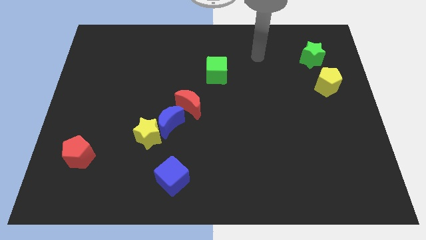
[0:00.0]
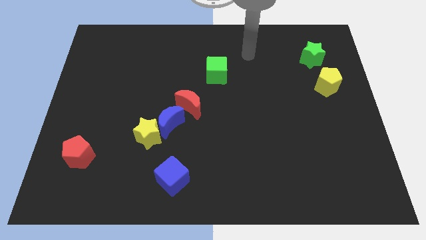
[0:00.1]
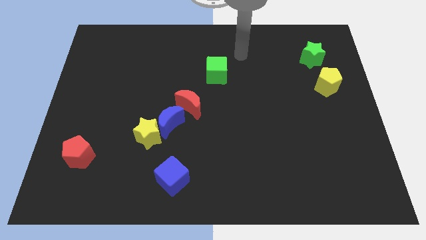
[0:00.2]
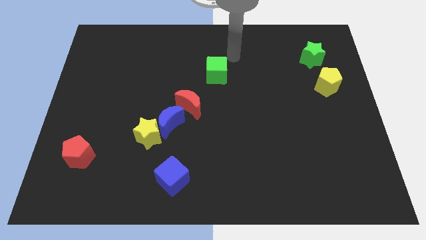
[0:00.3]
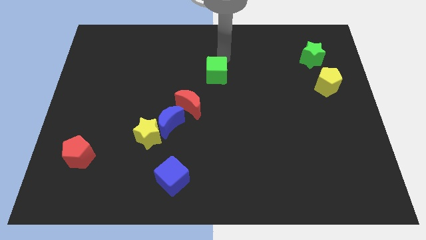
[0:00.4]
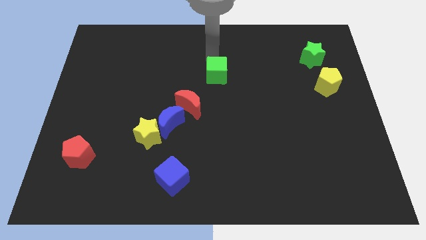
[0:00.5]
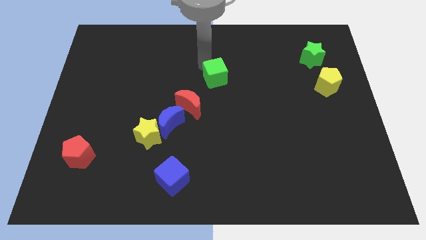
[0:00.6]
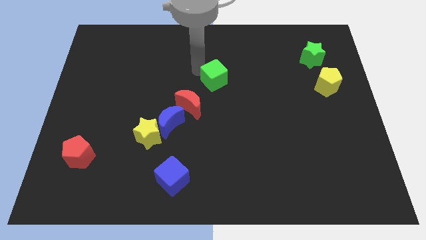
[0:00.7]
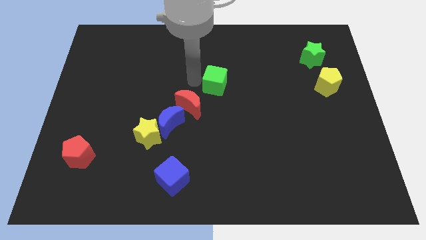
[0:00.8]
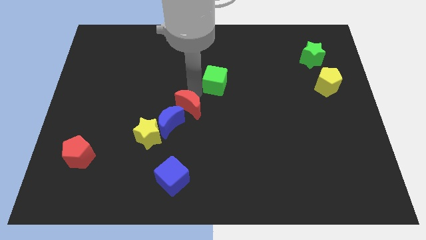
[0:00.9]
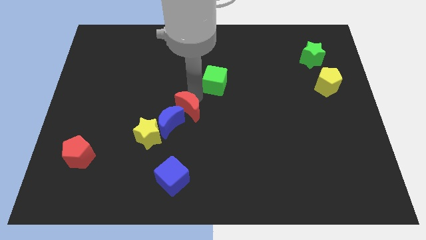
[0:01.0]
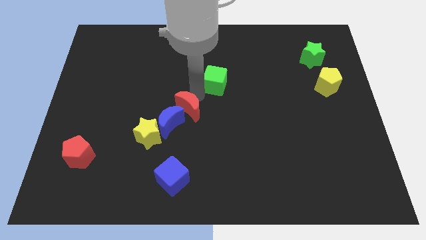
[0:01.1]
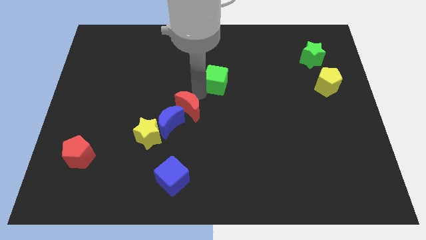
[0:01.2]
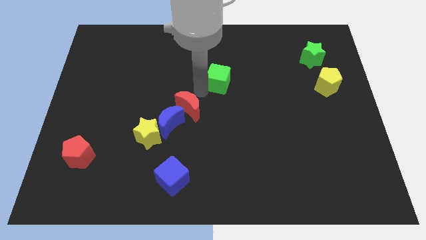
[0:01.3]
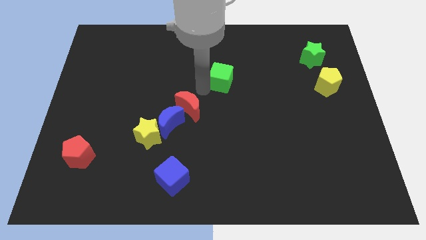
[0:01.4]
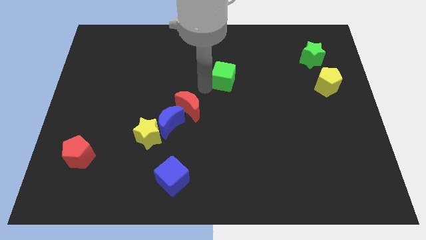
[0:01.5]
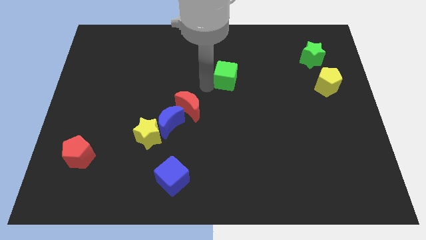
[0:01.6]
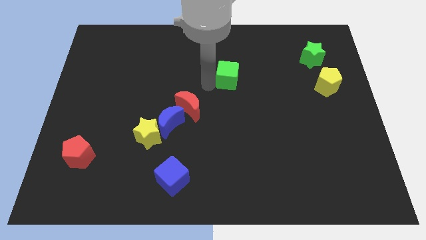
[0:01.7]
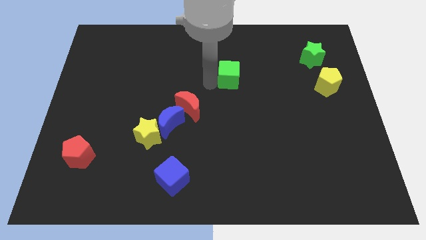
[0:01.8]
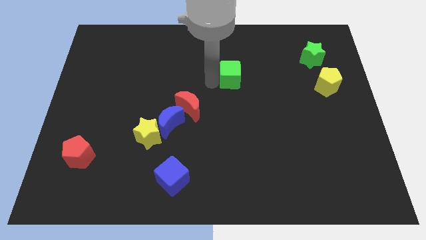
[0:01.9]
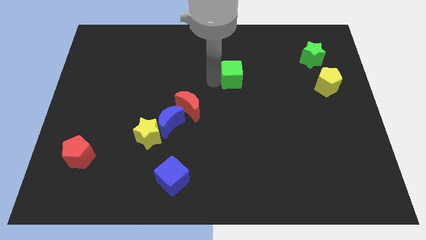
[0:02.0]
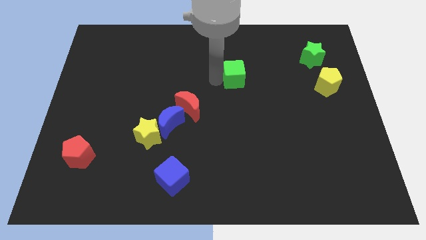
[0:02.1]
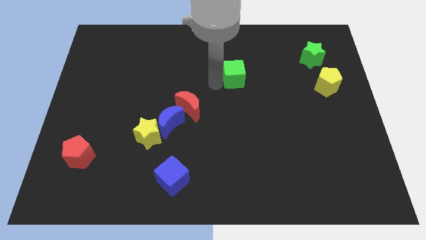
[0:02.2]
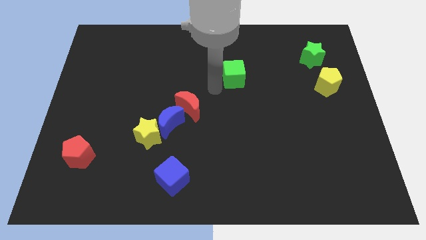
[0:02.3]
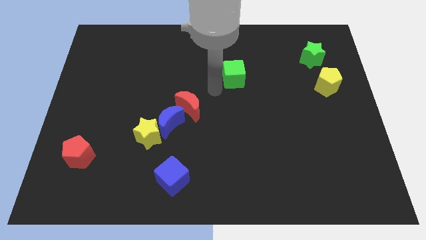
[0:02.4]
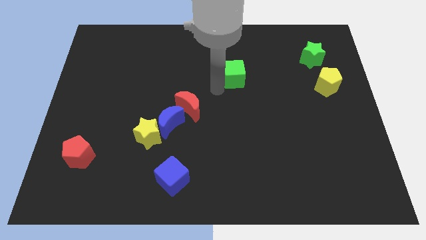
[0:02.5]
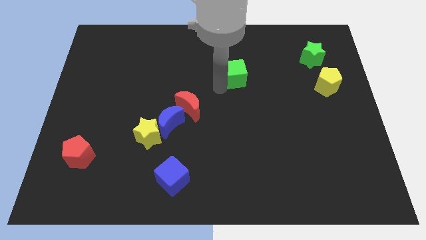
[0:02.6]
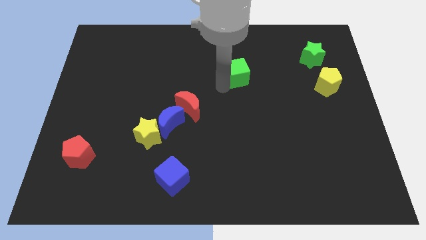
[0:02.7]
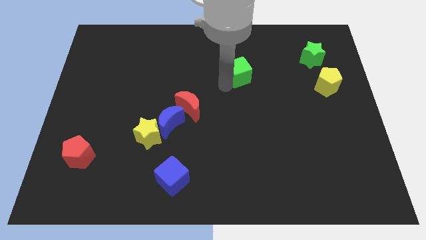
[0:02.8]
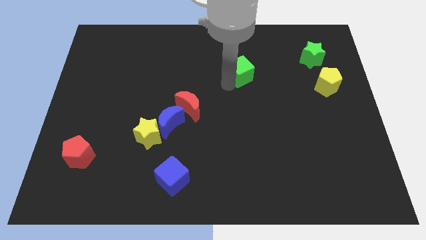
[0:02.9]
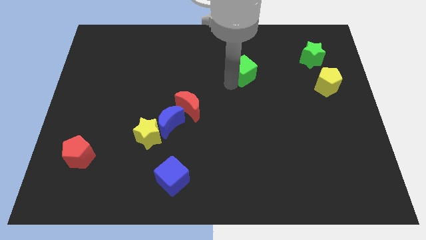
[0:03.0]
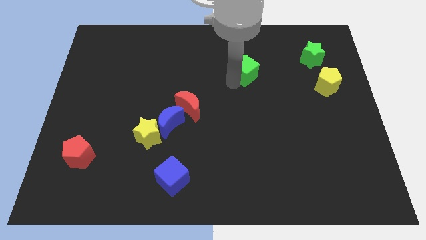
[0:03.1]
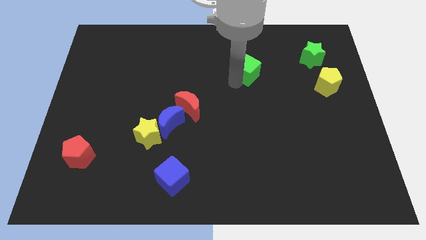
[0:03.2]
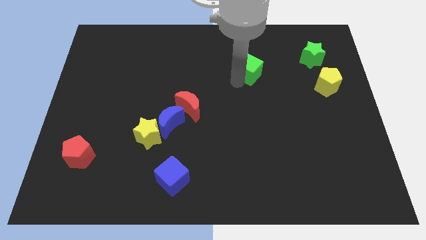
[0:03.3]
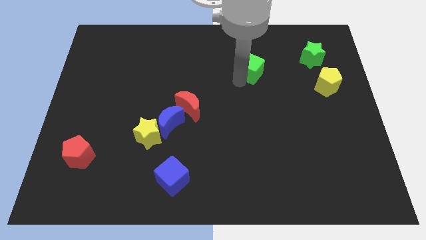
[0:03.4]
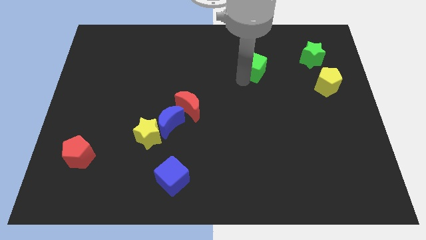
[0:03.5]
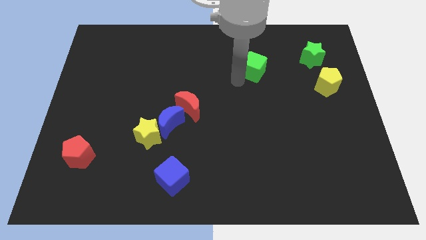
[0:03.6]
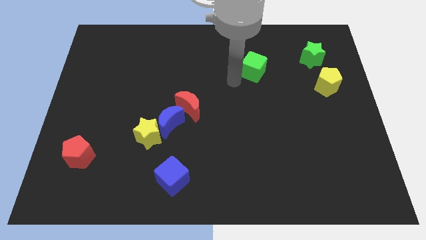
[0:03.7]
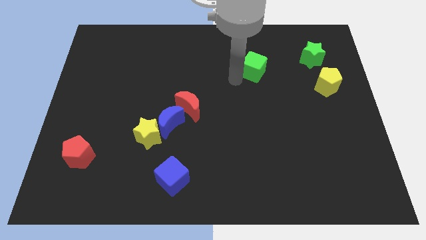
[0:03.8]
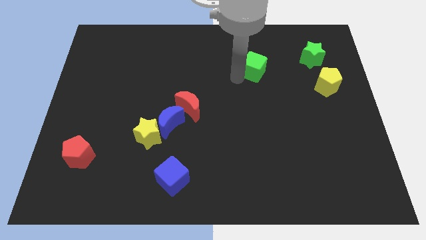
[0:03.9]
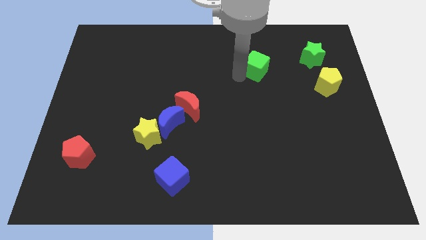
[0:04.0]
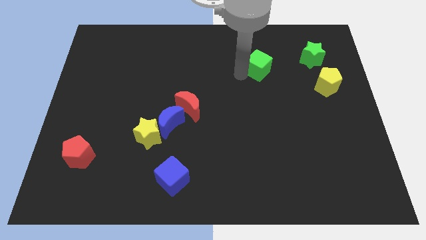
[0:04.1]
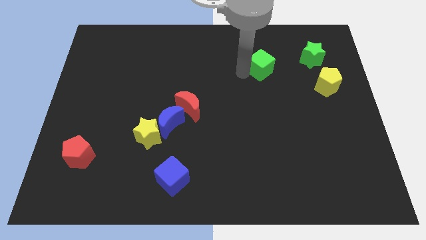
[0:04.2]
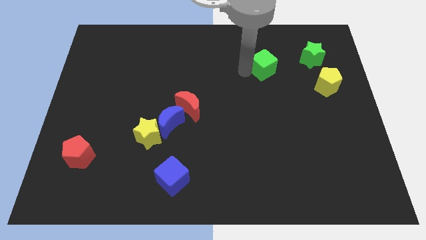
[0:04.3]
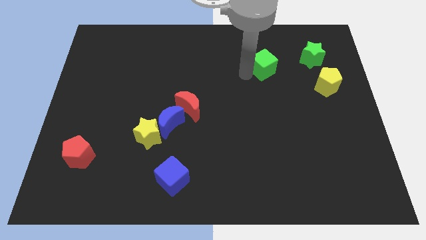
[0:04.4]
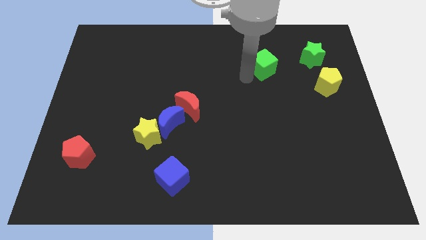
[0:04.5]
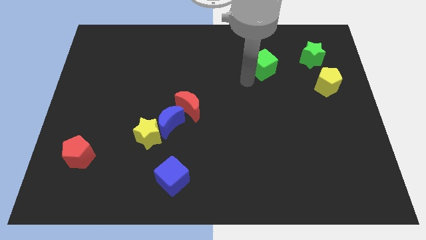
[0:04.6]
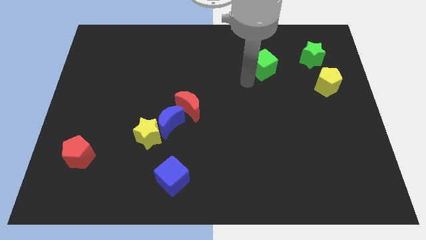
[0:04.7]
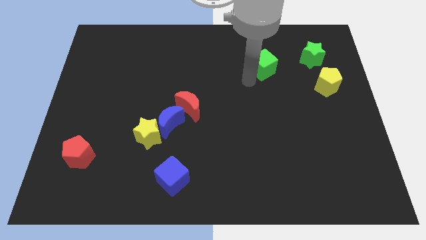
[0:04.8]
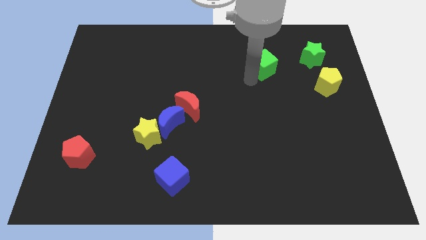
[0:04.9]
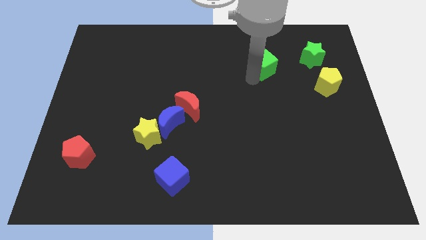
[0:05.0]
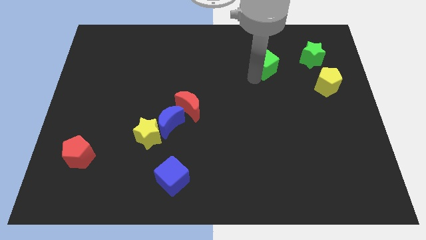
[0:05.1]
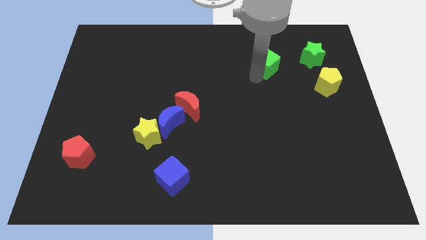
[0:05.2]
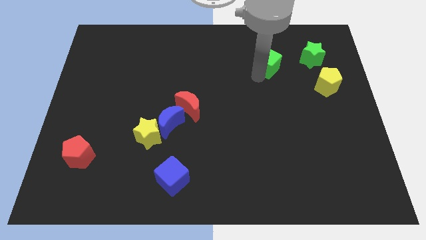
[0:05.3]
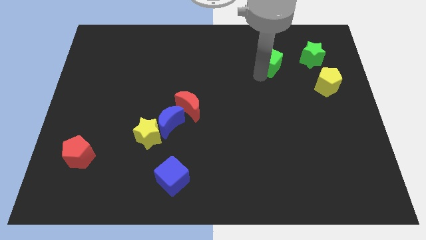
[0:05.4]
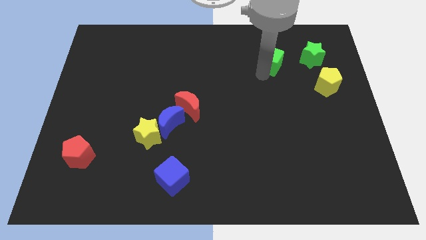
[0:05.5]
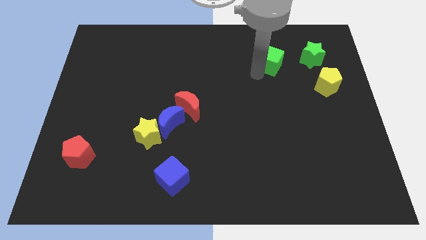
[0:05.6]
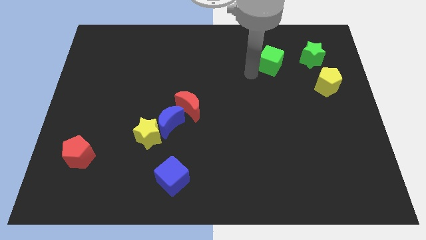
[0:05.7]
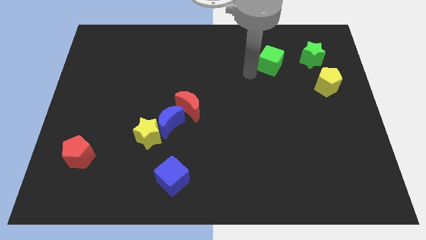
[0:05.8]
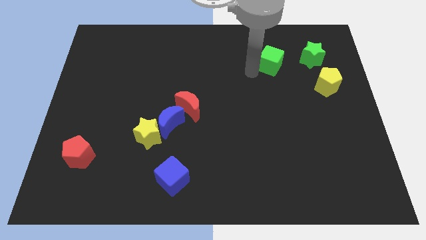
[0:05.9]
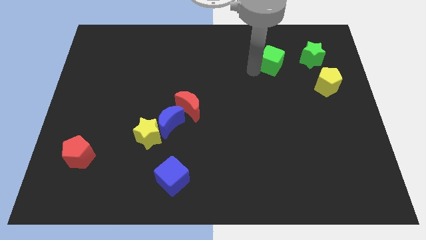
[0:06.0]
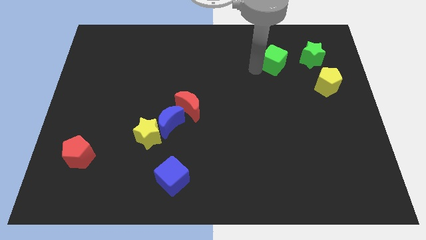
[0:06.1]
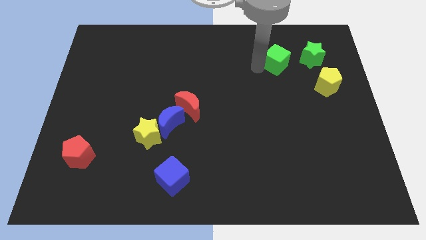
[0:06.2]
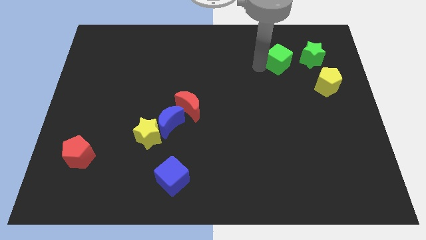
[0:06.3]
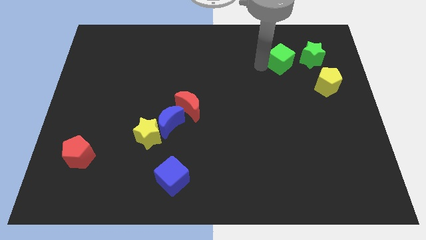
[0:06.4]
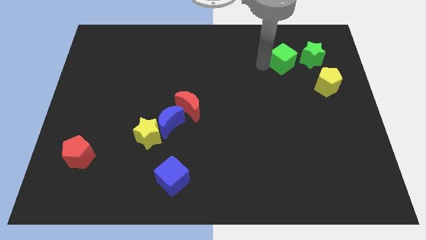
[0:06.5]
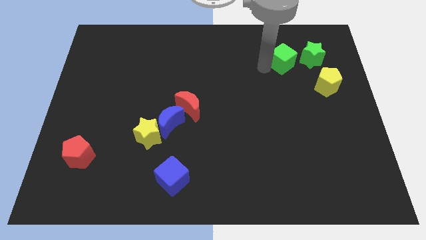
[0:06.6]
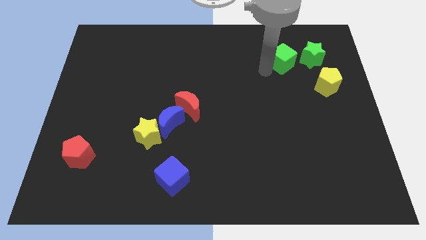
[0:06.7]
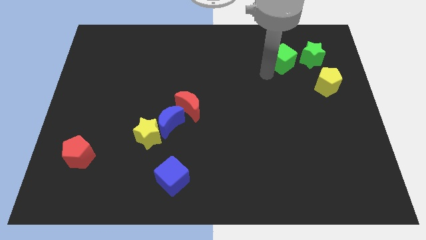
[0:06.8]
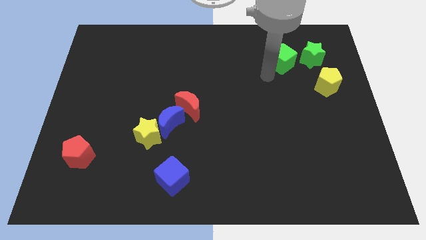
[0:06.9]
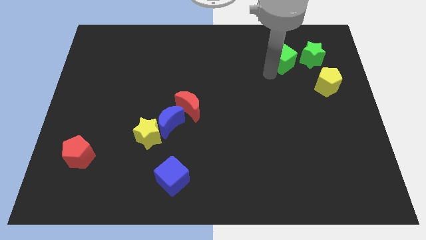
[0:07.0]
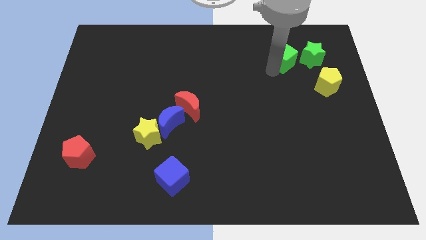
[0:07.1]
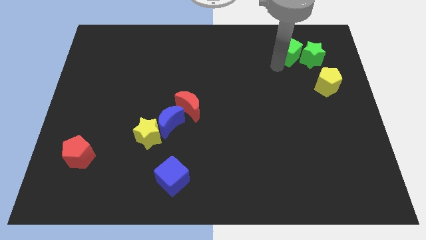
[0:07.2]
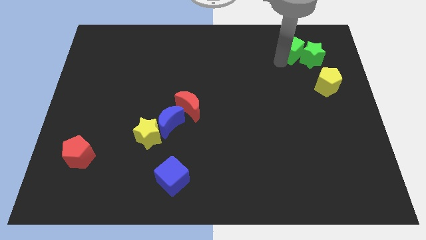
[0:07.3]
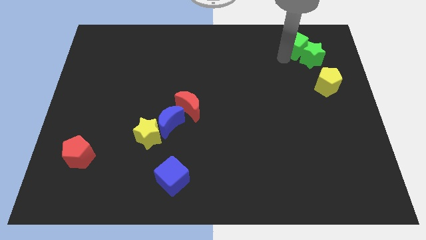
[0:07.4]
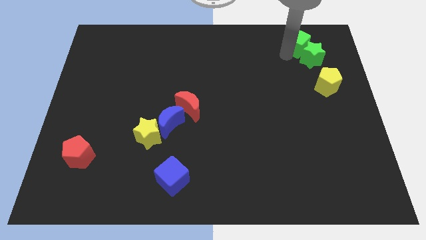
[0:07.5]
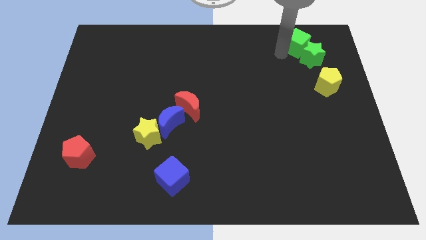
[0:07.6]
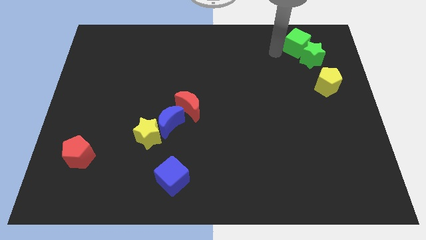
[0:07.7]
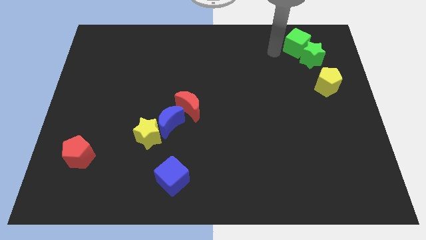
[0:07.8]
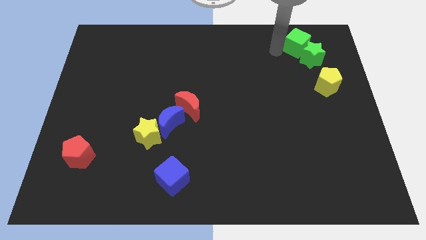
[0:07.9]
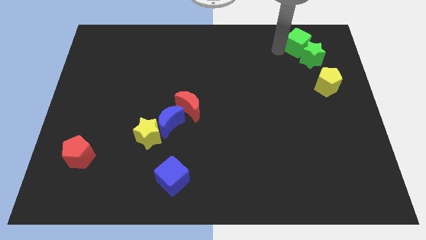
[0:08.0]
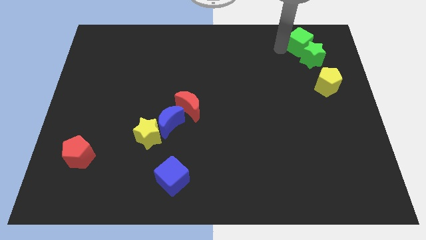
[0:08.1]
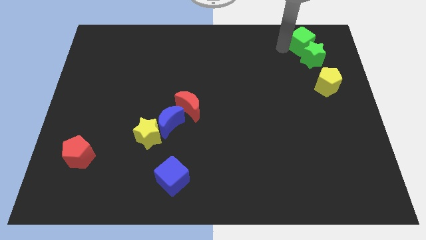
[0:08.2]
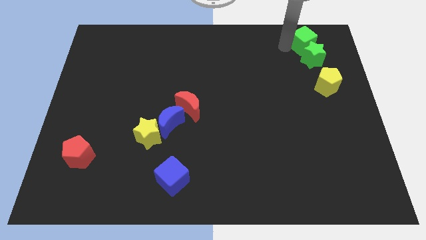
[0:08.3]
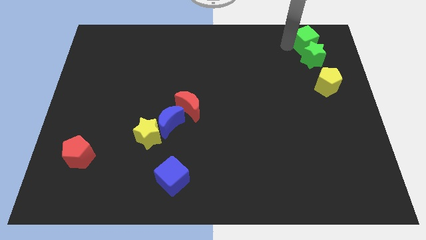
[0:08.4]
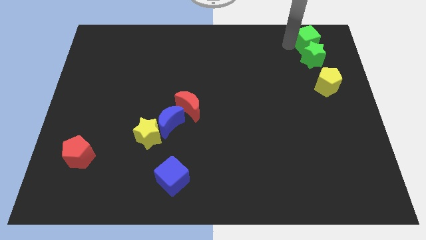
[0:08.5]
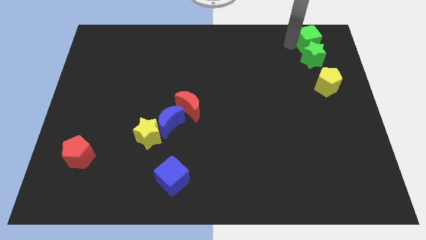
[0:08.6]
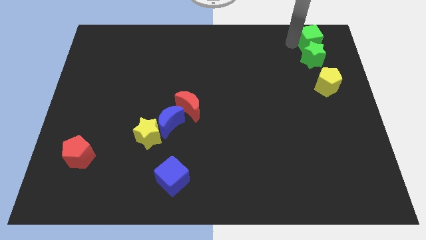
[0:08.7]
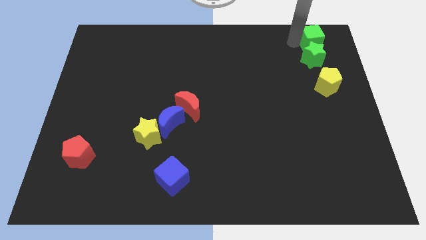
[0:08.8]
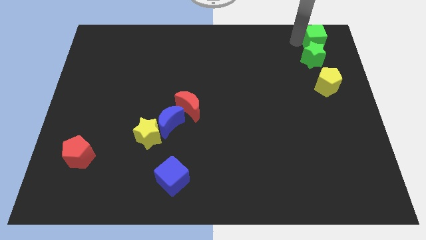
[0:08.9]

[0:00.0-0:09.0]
slide the green cube to the top right of the board
